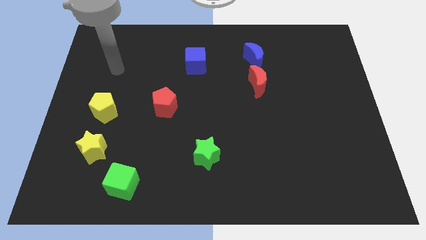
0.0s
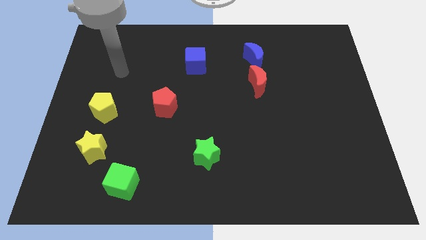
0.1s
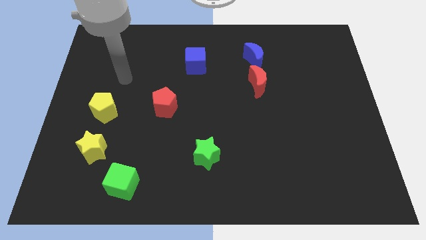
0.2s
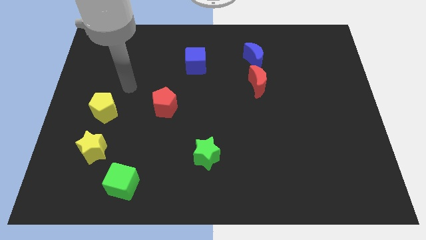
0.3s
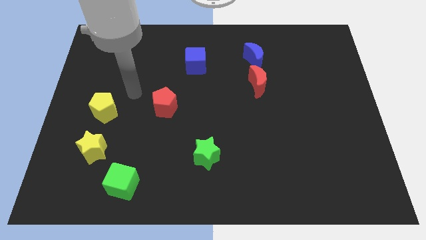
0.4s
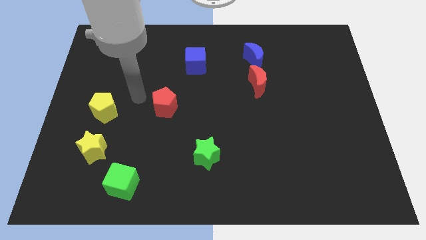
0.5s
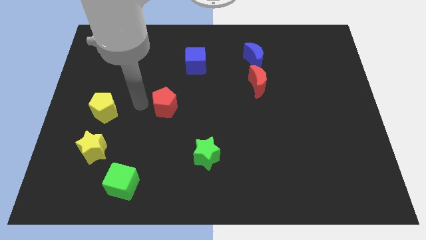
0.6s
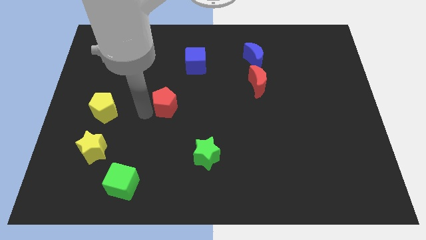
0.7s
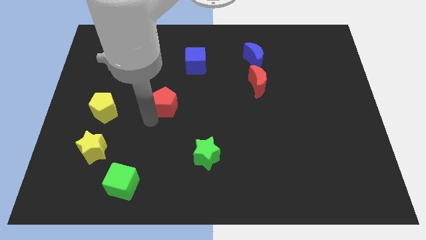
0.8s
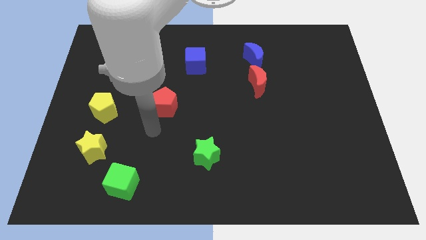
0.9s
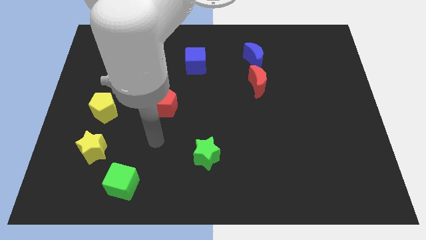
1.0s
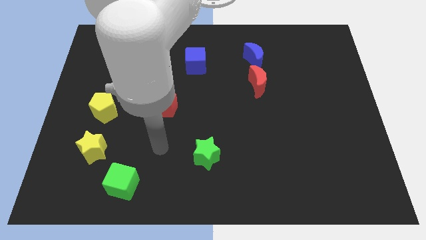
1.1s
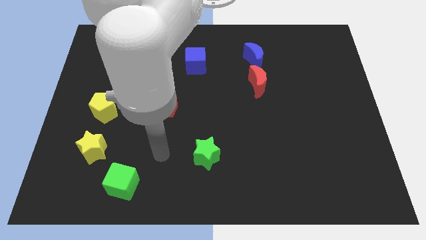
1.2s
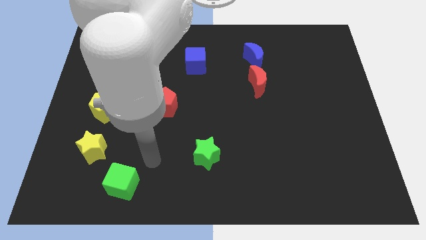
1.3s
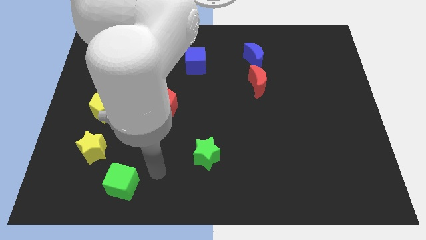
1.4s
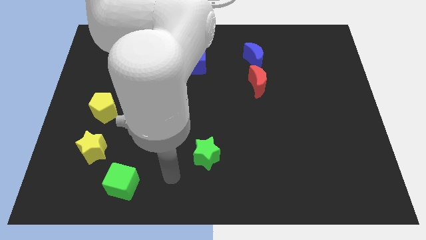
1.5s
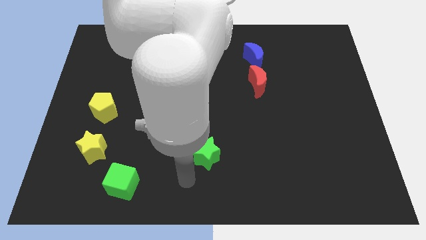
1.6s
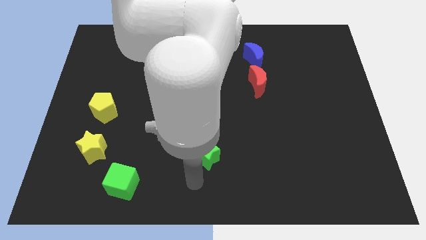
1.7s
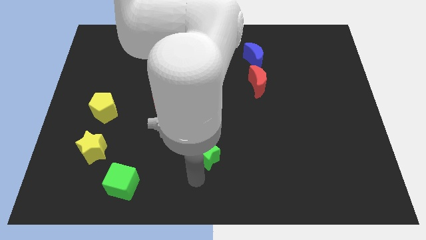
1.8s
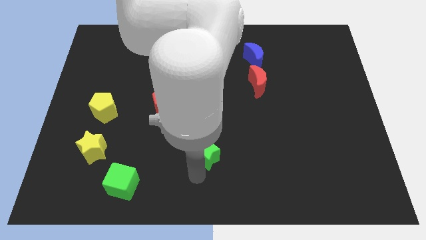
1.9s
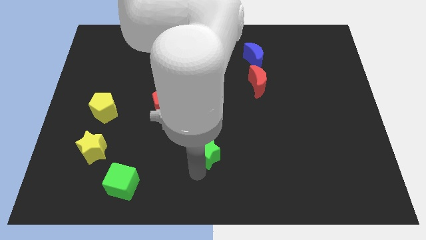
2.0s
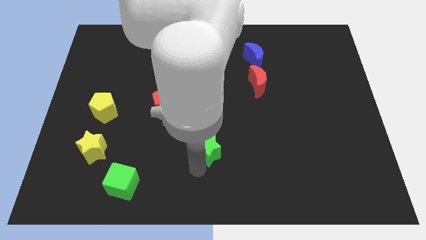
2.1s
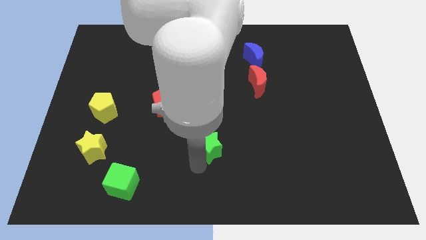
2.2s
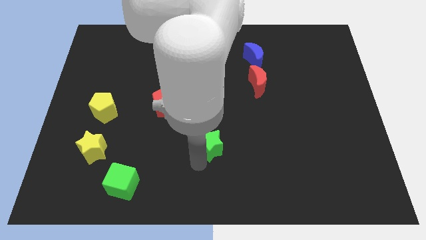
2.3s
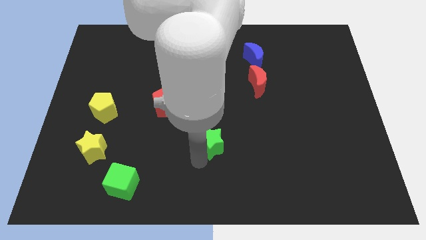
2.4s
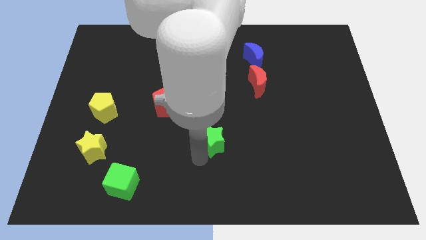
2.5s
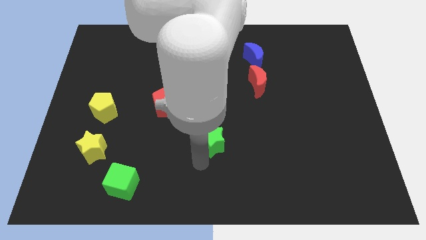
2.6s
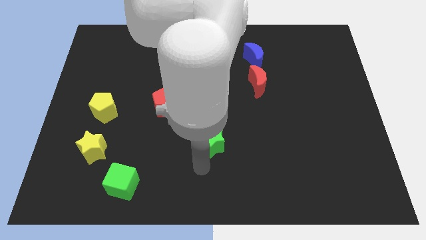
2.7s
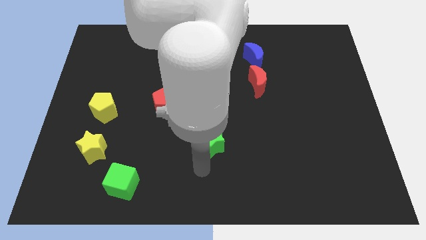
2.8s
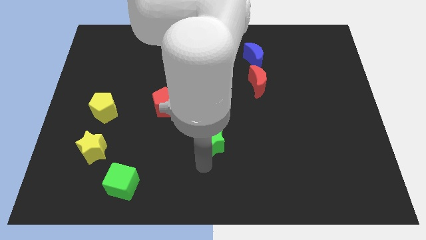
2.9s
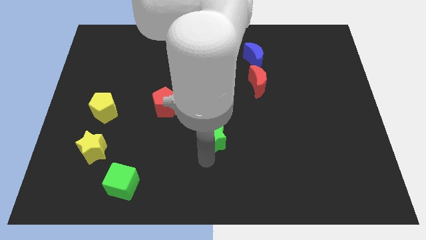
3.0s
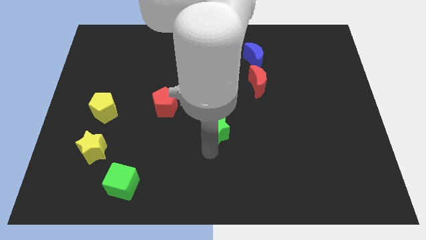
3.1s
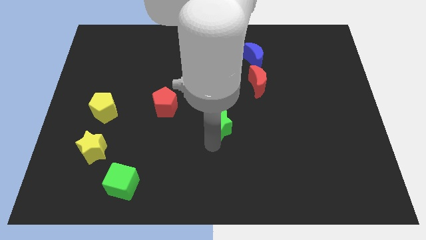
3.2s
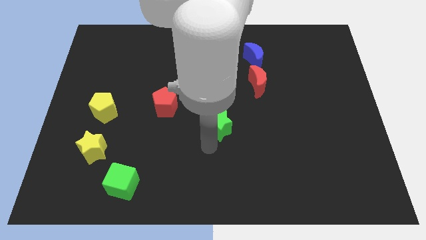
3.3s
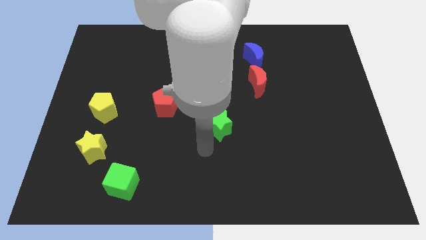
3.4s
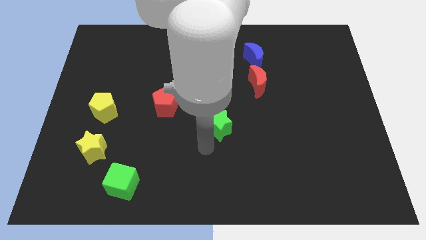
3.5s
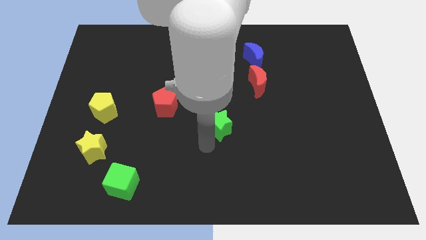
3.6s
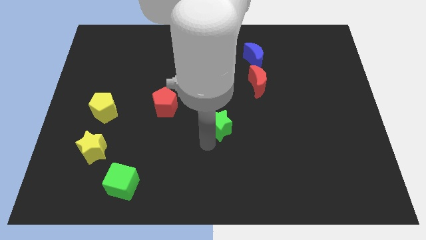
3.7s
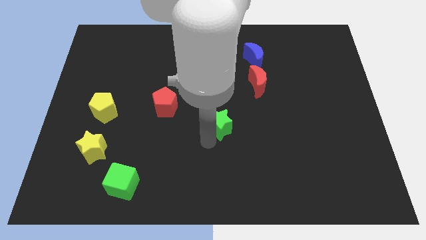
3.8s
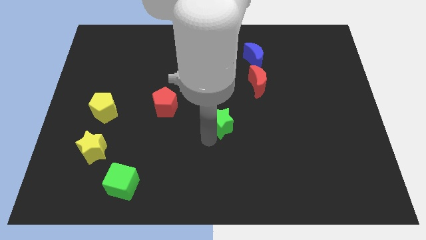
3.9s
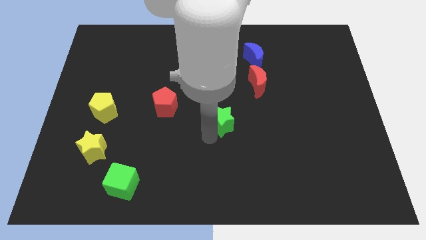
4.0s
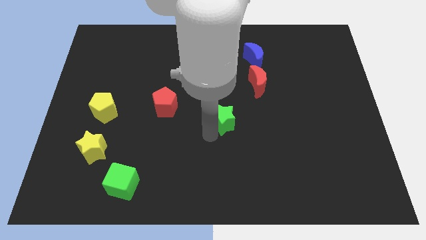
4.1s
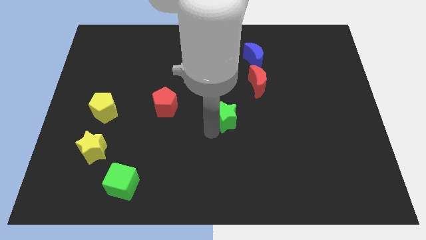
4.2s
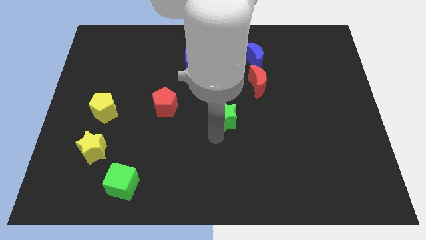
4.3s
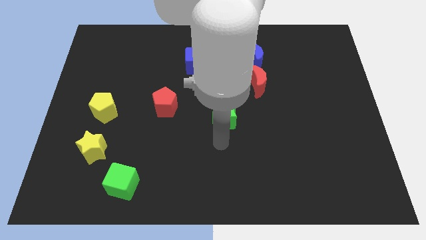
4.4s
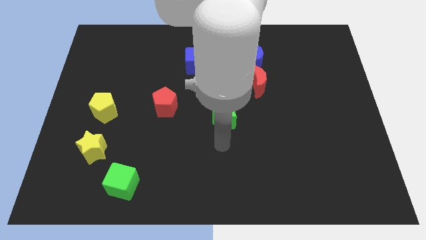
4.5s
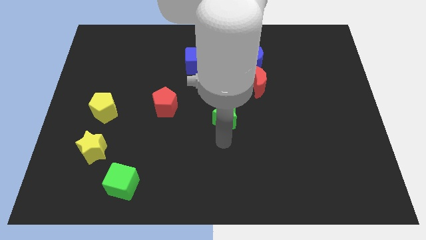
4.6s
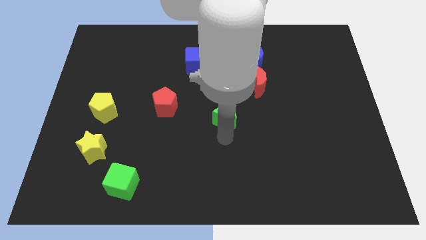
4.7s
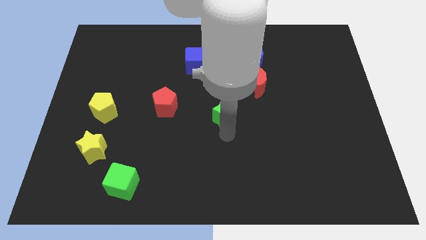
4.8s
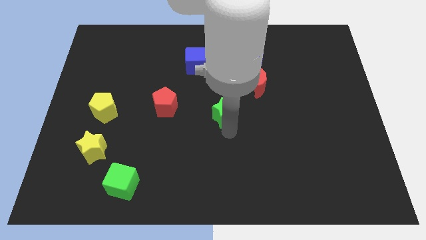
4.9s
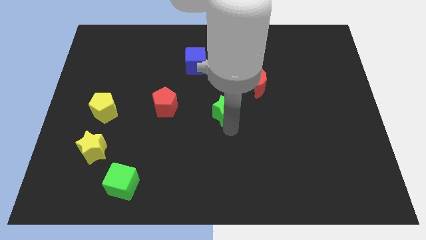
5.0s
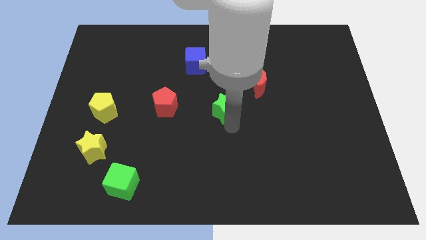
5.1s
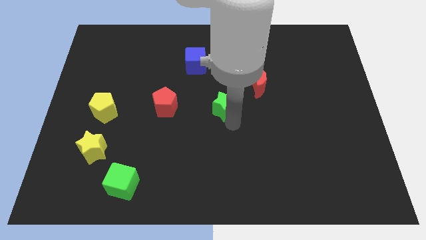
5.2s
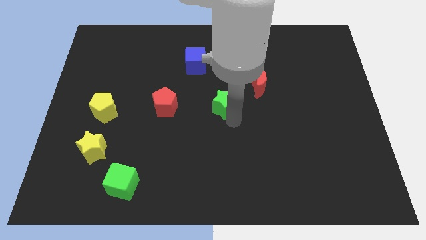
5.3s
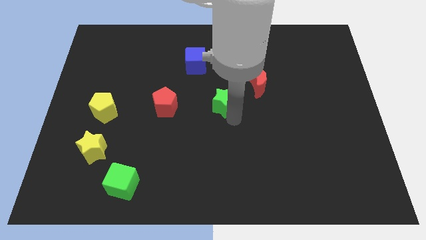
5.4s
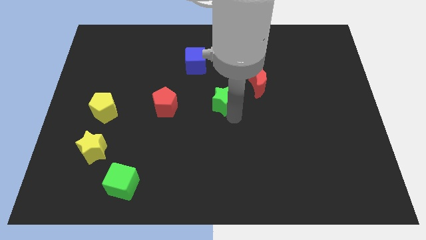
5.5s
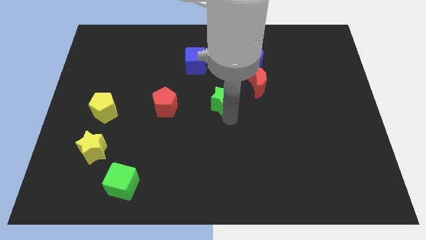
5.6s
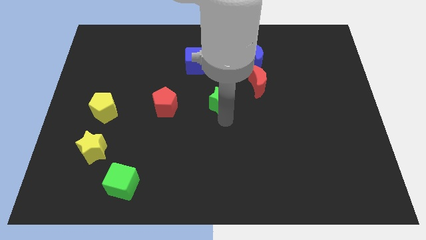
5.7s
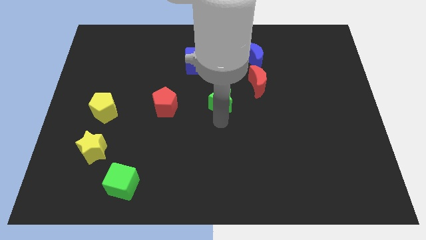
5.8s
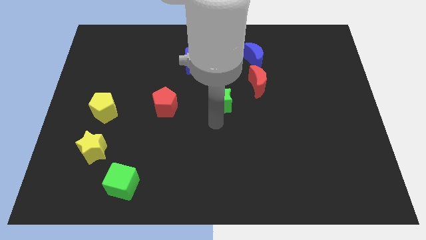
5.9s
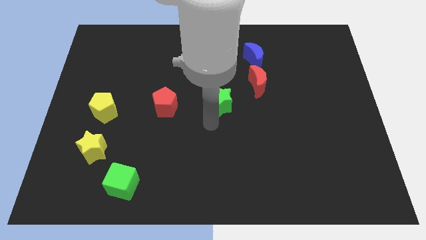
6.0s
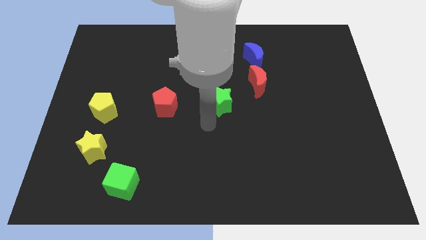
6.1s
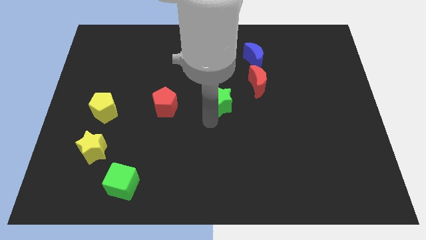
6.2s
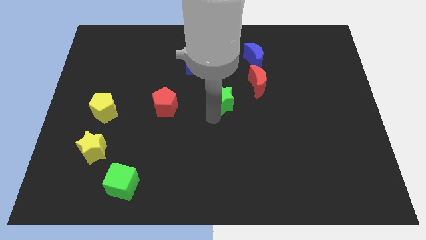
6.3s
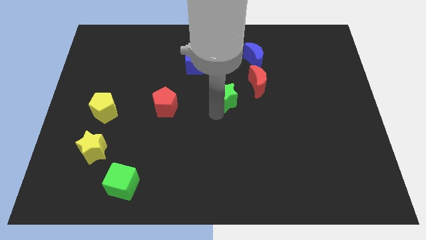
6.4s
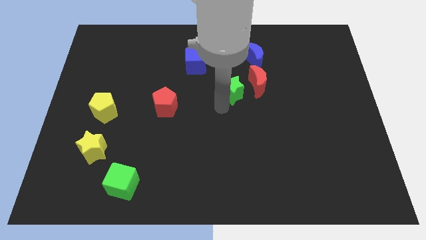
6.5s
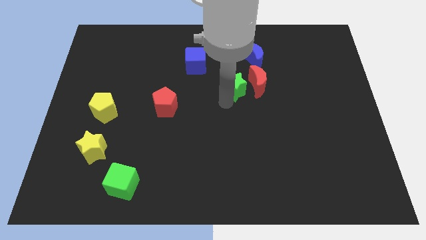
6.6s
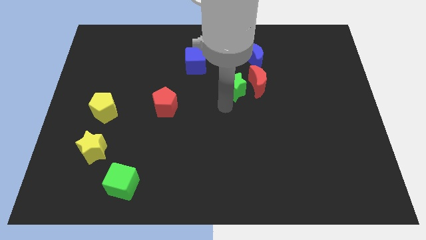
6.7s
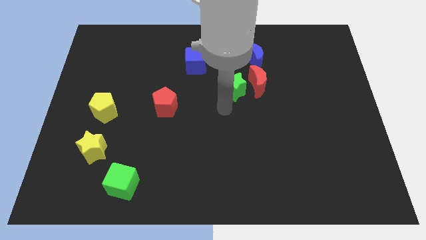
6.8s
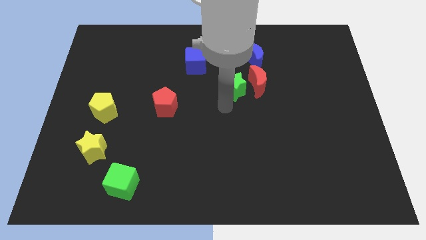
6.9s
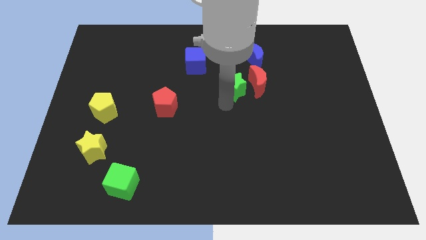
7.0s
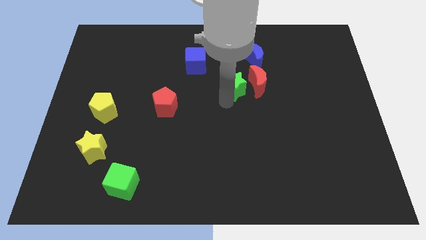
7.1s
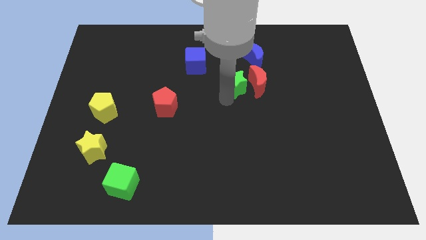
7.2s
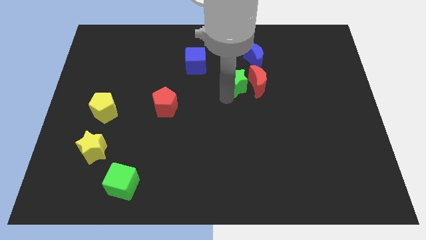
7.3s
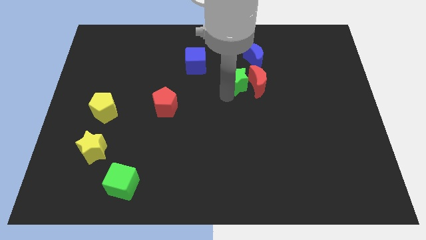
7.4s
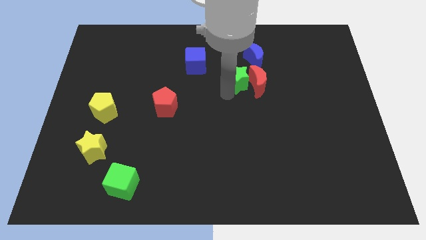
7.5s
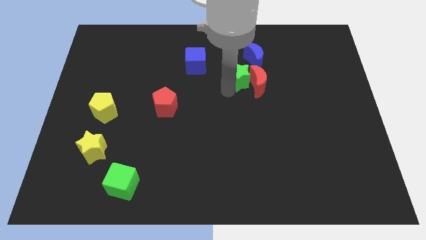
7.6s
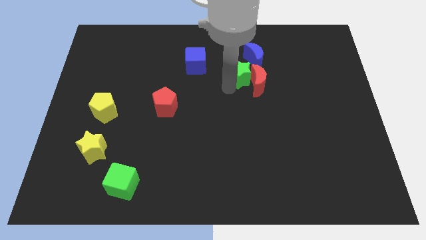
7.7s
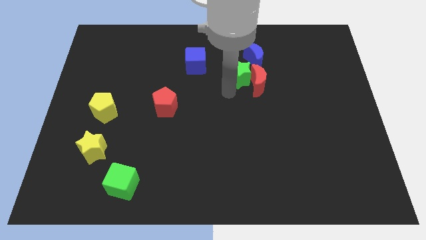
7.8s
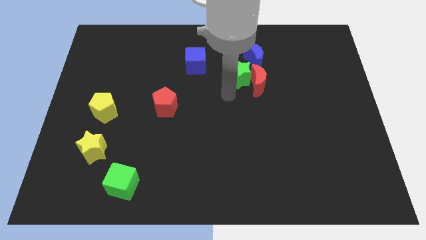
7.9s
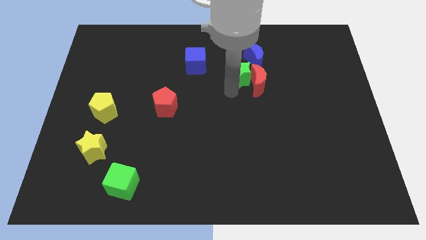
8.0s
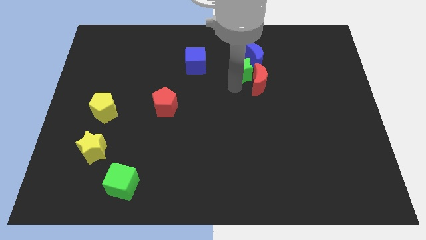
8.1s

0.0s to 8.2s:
move the green star next to the blue moon
